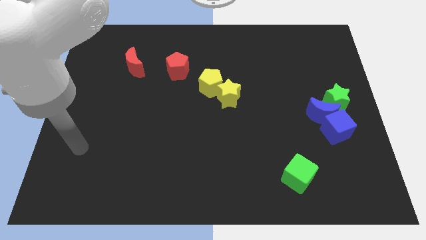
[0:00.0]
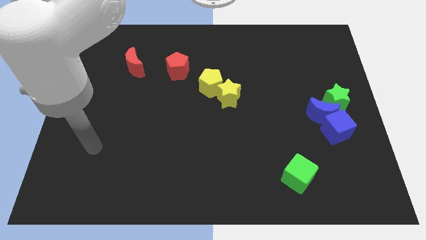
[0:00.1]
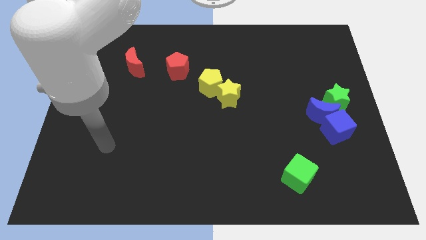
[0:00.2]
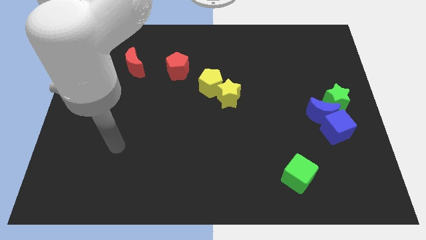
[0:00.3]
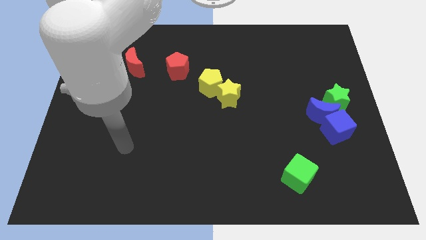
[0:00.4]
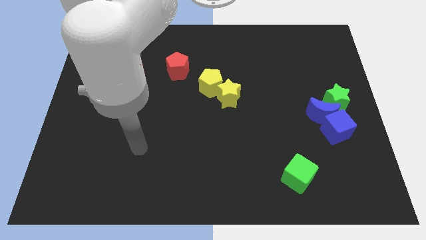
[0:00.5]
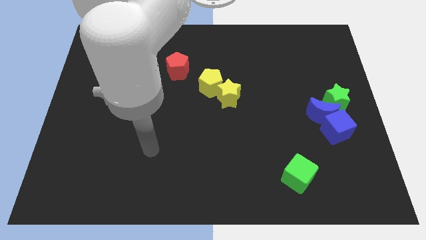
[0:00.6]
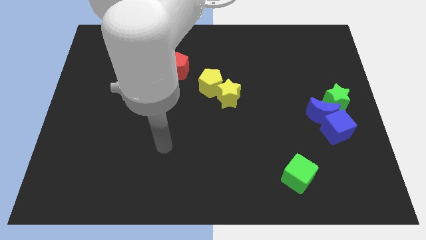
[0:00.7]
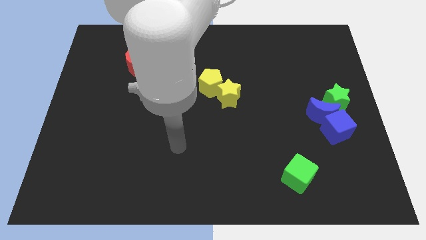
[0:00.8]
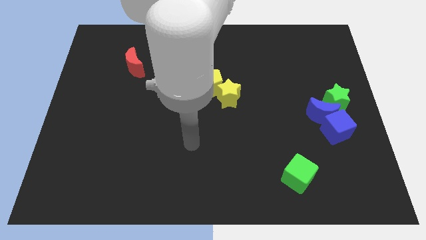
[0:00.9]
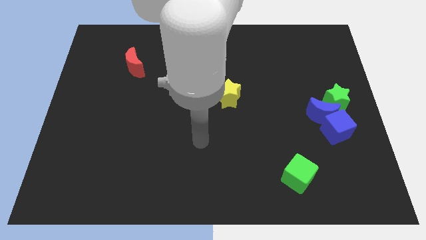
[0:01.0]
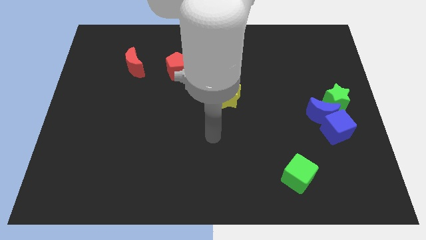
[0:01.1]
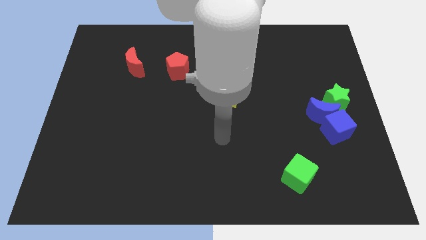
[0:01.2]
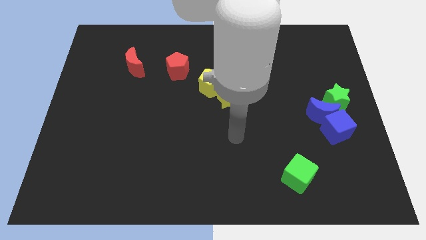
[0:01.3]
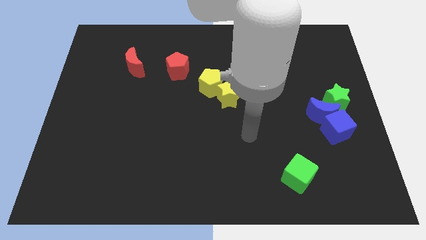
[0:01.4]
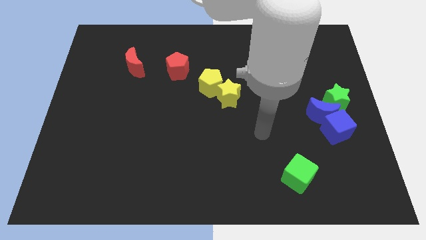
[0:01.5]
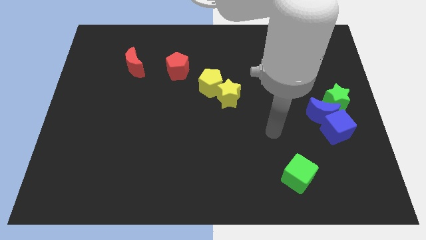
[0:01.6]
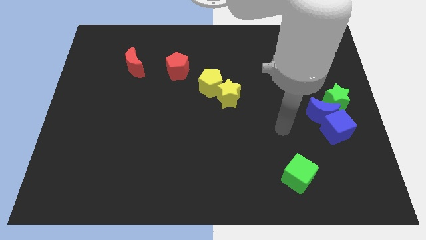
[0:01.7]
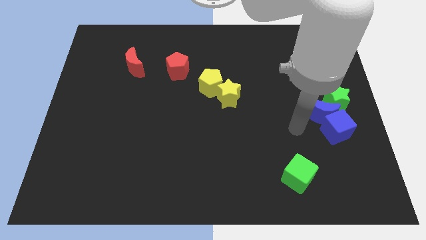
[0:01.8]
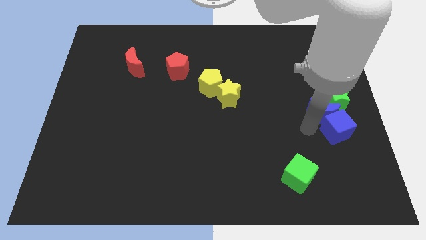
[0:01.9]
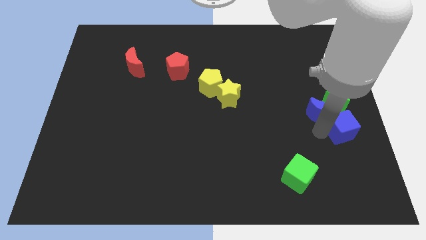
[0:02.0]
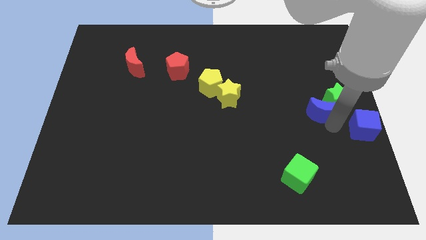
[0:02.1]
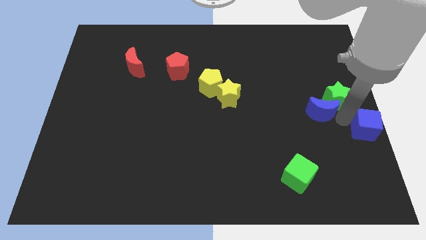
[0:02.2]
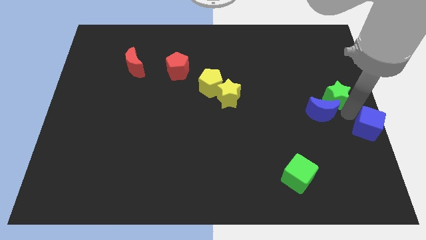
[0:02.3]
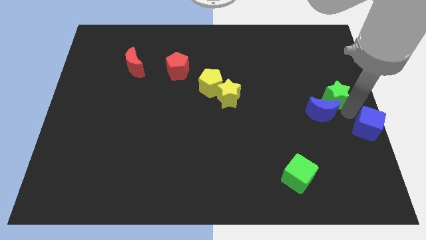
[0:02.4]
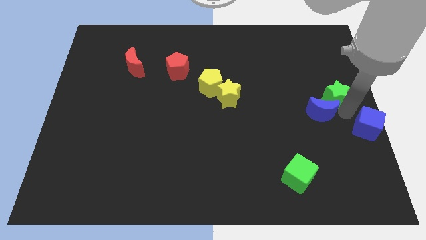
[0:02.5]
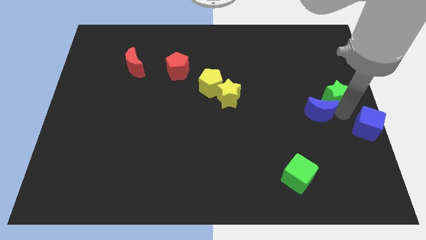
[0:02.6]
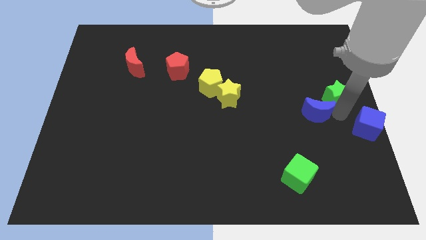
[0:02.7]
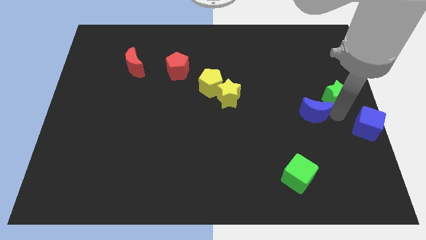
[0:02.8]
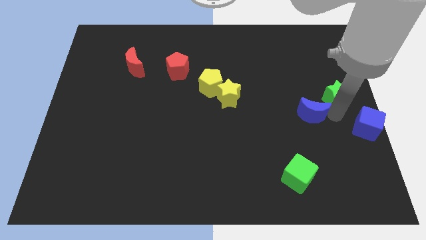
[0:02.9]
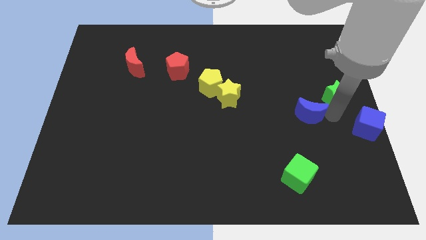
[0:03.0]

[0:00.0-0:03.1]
move the blue moon away from the blue cube and green star

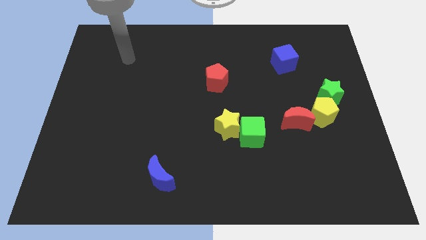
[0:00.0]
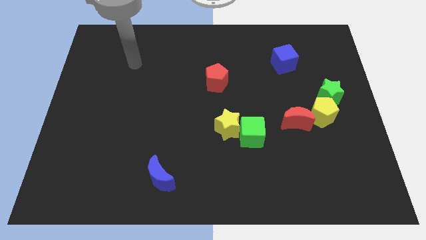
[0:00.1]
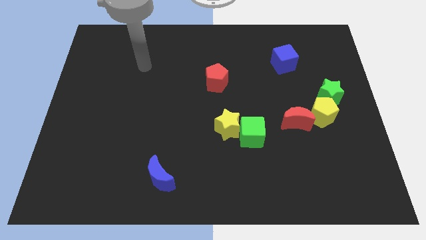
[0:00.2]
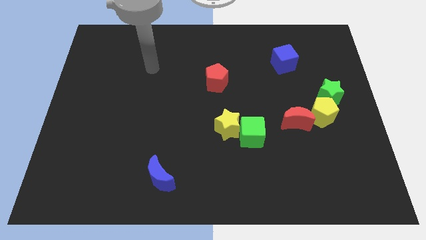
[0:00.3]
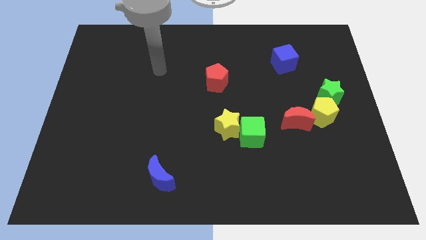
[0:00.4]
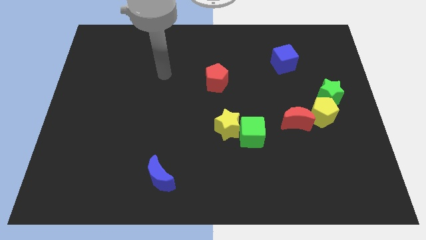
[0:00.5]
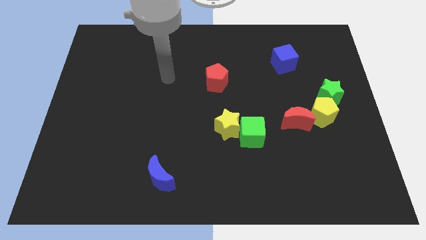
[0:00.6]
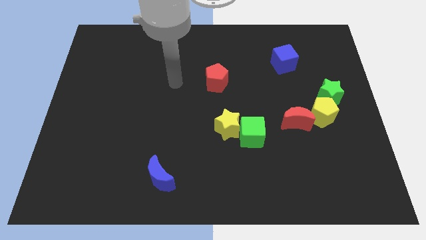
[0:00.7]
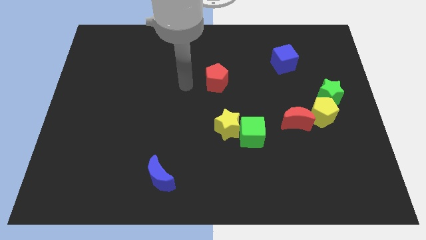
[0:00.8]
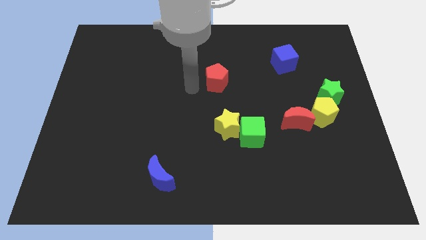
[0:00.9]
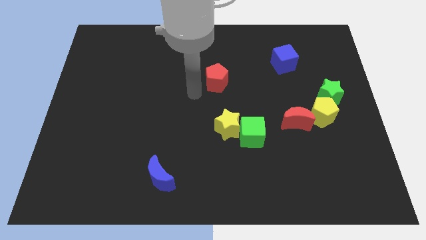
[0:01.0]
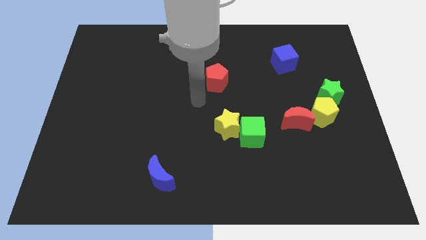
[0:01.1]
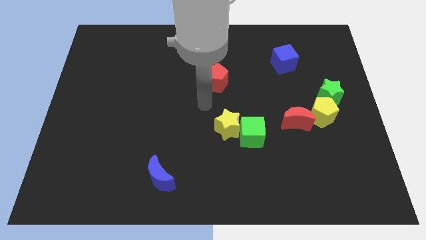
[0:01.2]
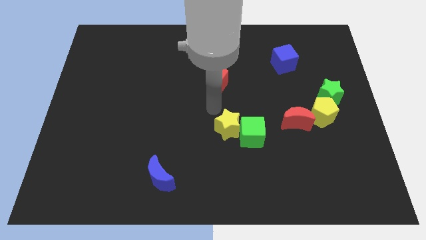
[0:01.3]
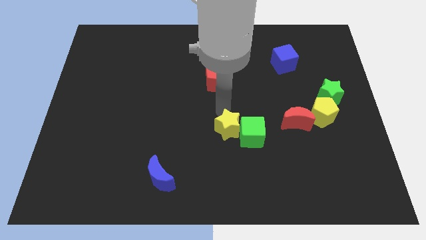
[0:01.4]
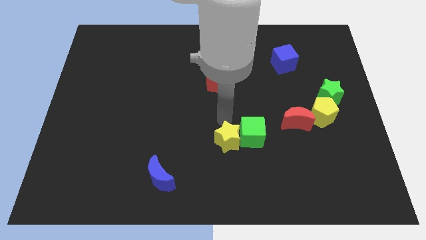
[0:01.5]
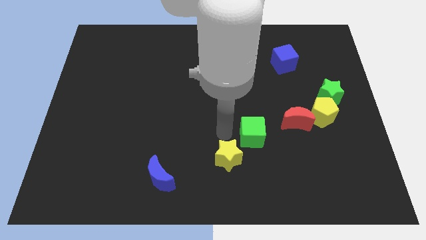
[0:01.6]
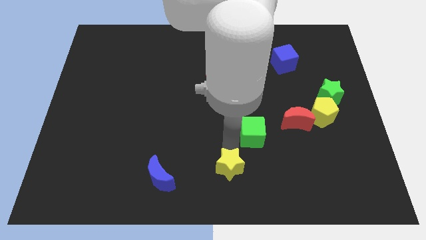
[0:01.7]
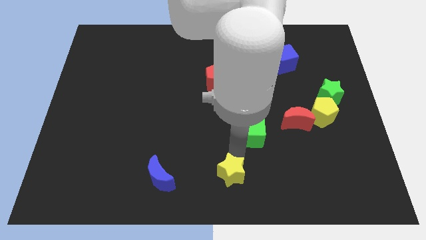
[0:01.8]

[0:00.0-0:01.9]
pull the green cube apart from the yellow star

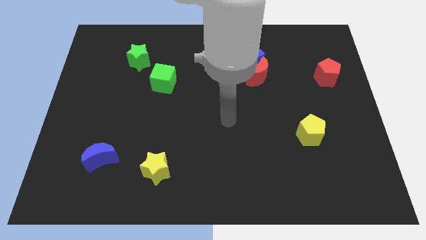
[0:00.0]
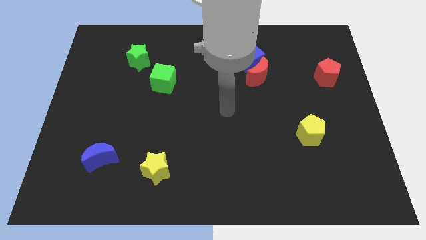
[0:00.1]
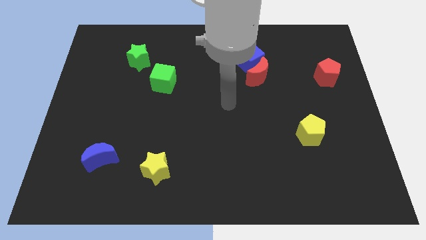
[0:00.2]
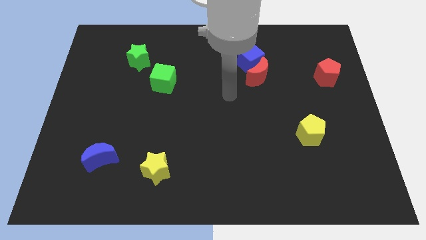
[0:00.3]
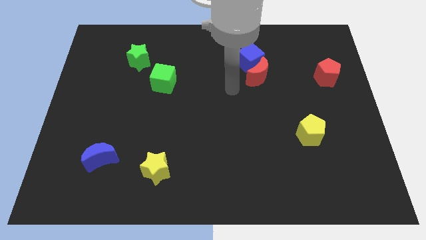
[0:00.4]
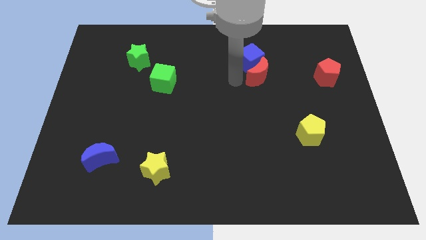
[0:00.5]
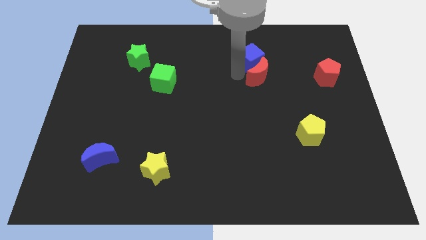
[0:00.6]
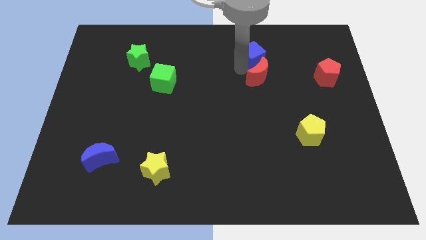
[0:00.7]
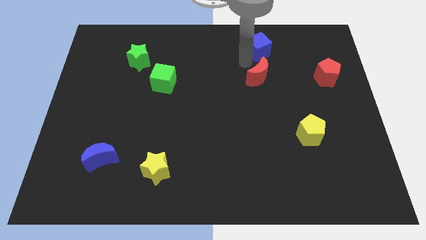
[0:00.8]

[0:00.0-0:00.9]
move the red moon away from the blue cube

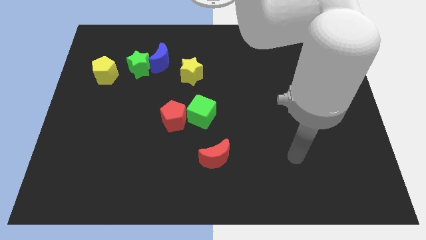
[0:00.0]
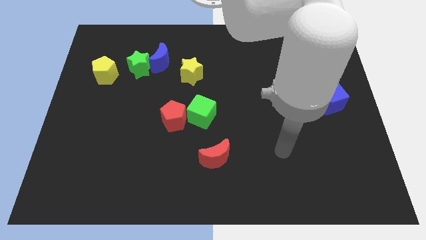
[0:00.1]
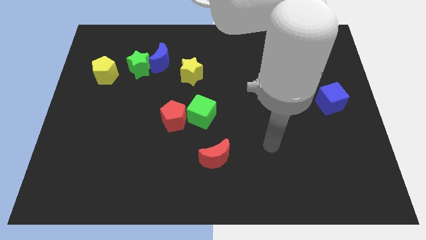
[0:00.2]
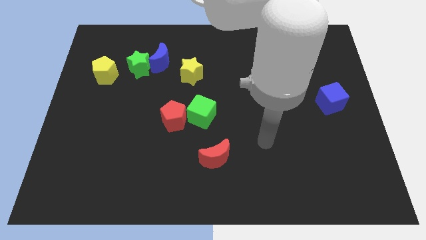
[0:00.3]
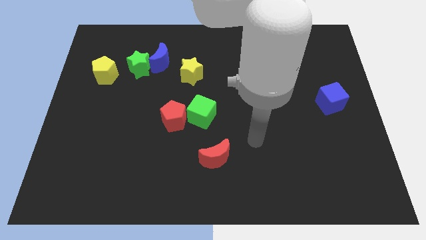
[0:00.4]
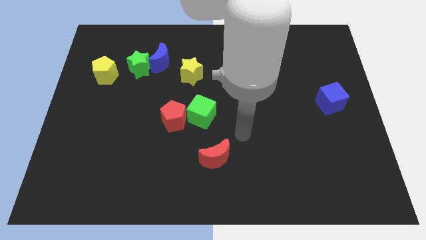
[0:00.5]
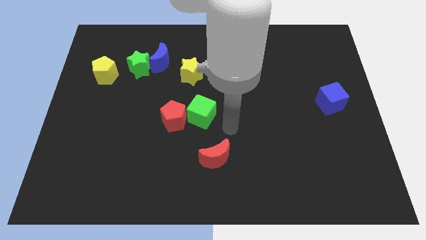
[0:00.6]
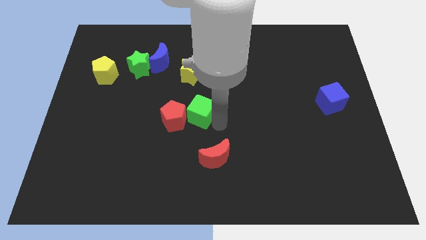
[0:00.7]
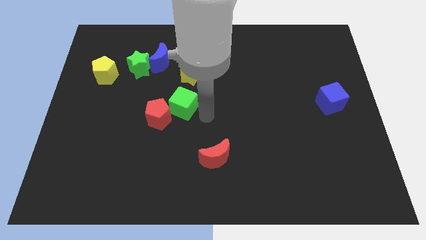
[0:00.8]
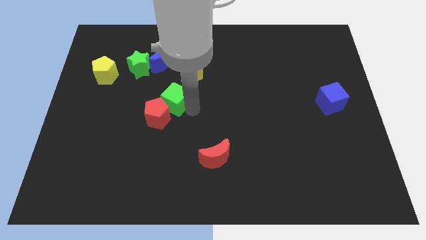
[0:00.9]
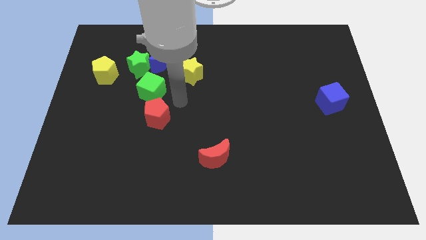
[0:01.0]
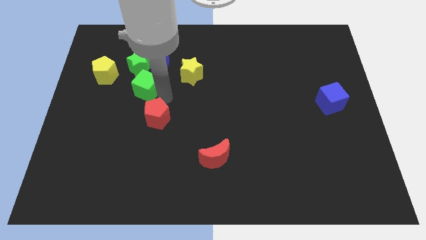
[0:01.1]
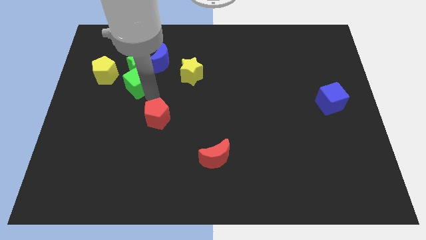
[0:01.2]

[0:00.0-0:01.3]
pull the red pentagon apart from the green cube

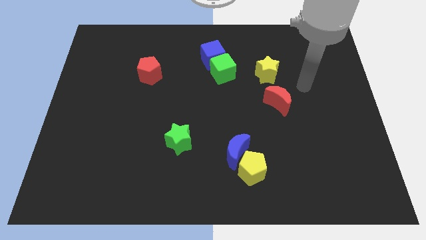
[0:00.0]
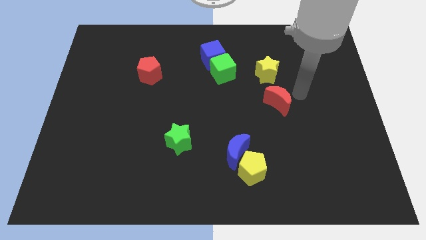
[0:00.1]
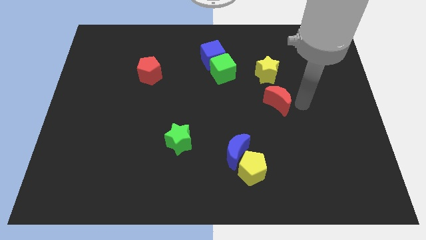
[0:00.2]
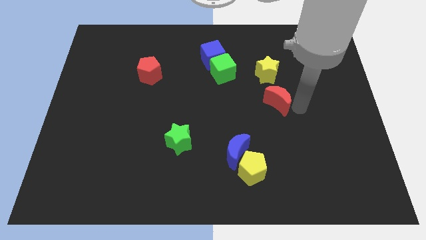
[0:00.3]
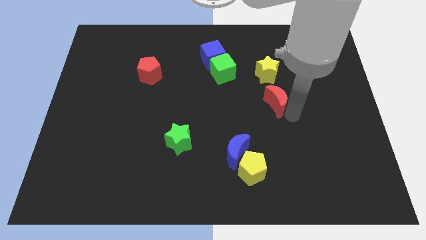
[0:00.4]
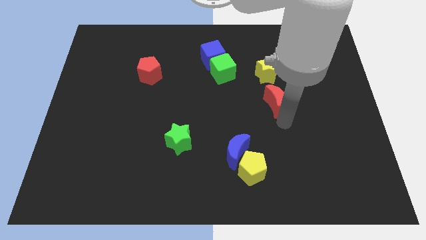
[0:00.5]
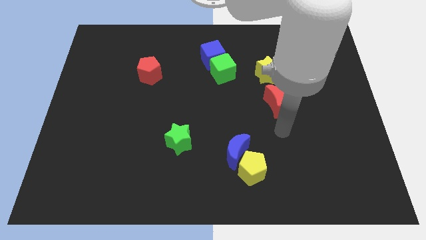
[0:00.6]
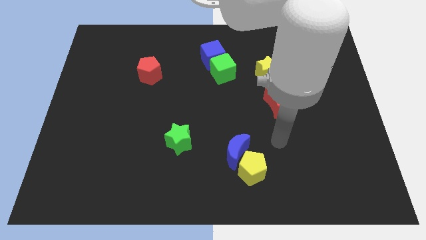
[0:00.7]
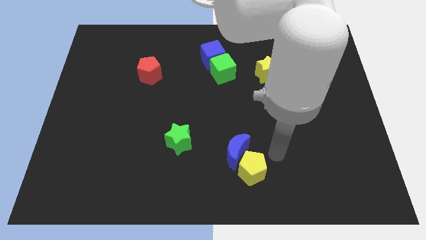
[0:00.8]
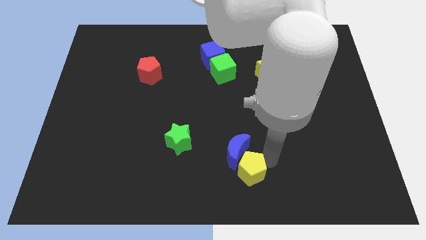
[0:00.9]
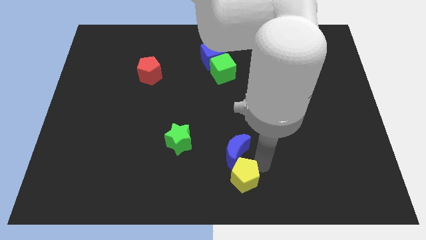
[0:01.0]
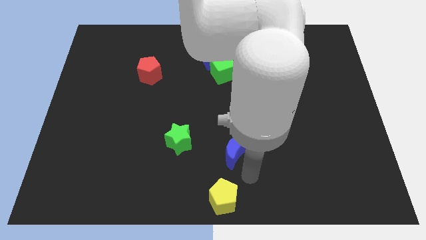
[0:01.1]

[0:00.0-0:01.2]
pull the blue moon apart from the yellow pentagon

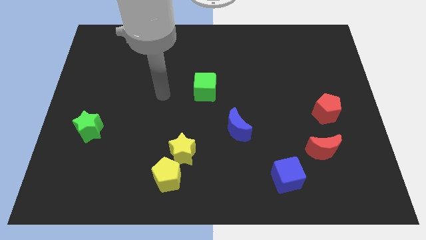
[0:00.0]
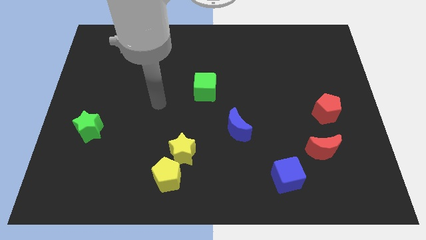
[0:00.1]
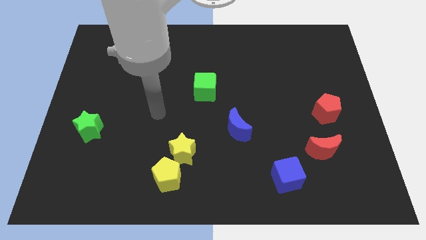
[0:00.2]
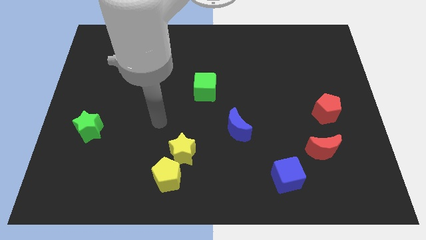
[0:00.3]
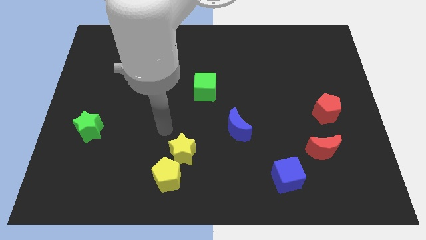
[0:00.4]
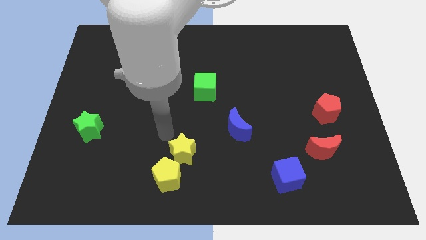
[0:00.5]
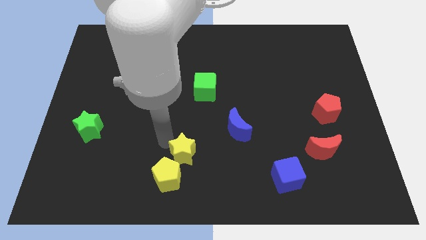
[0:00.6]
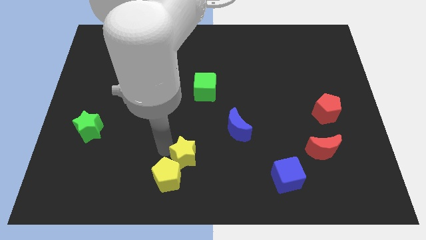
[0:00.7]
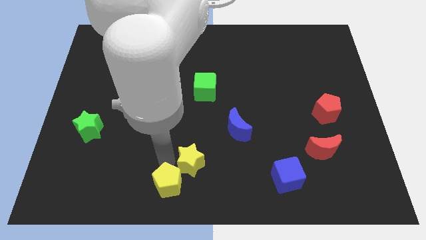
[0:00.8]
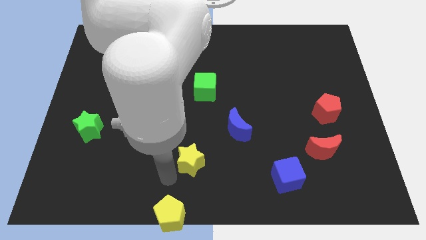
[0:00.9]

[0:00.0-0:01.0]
separate the yellow star from the yellow pentagon
